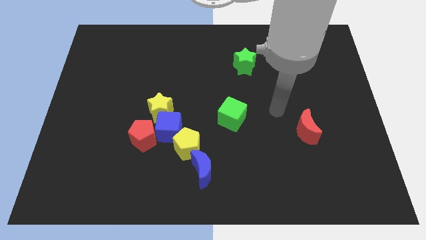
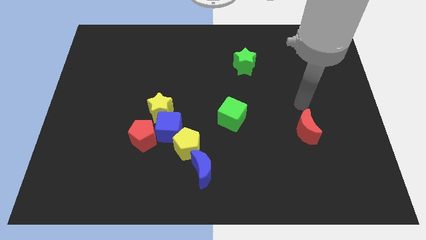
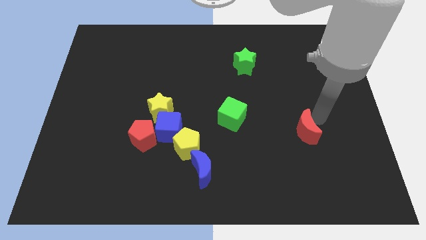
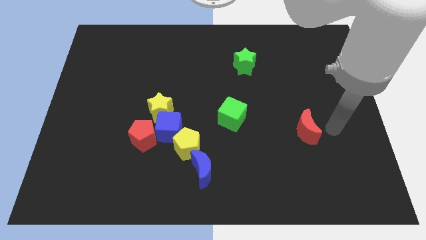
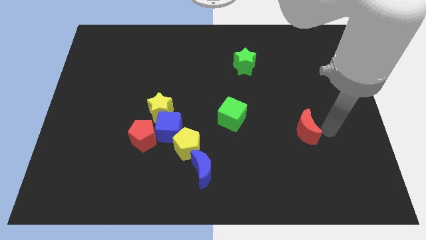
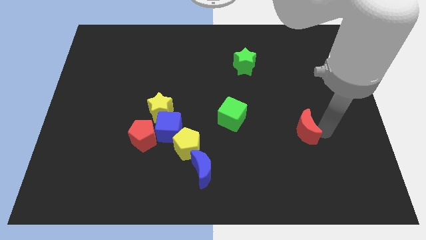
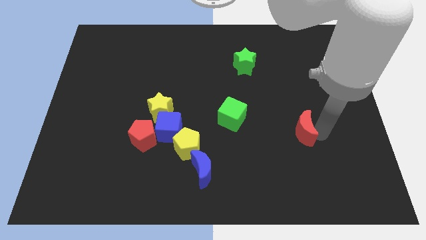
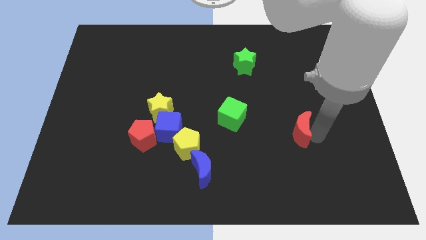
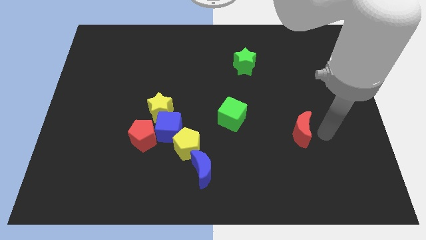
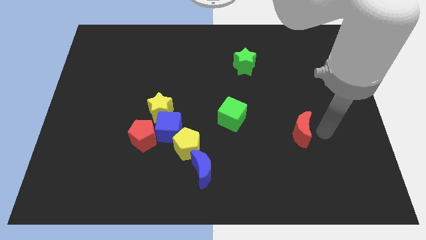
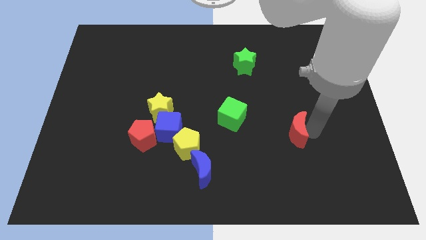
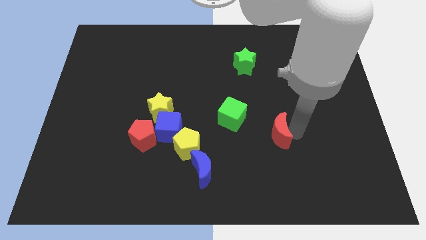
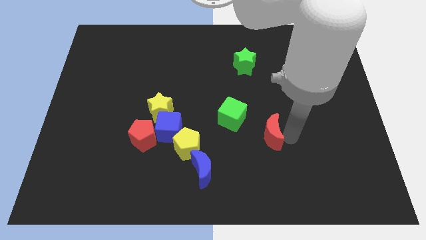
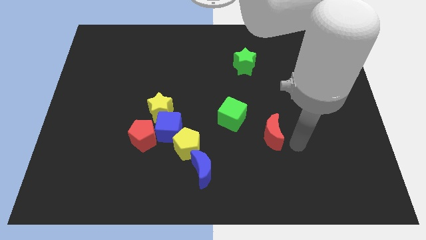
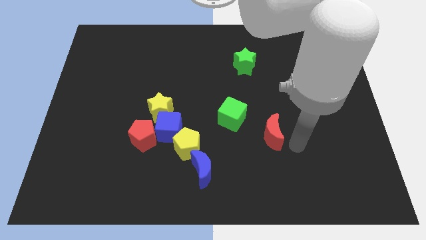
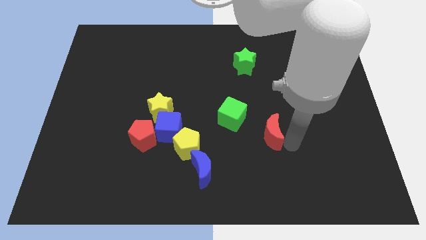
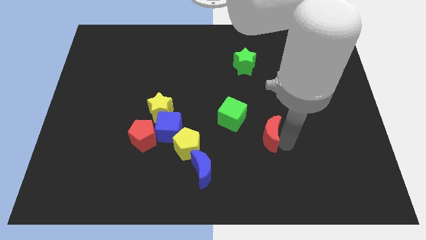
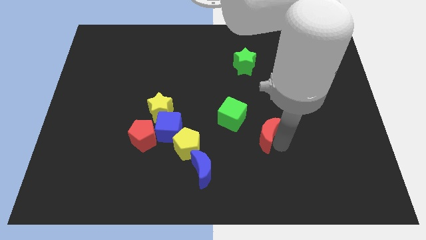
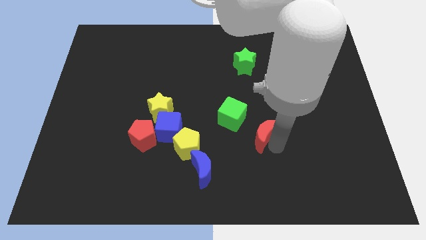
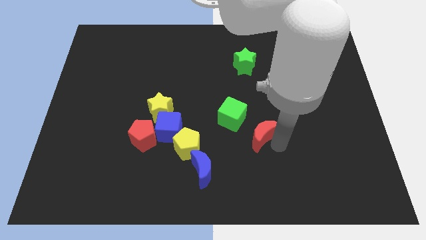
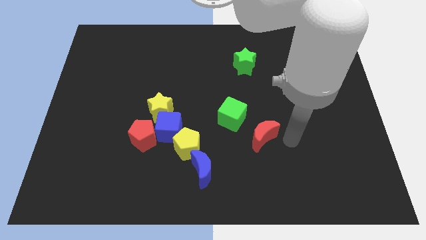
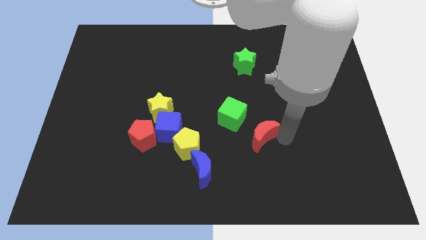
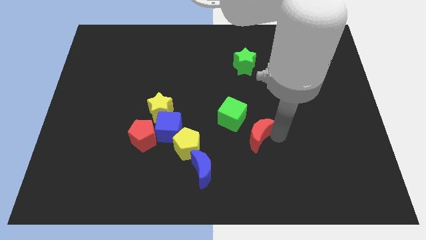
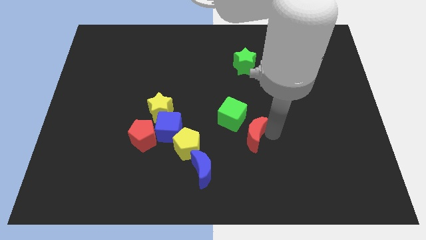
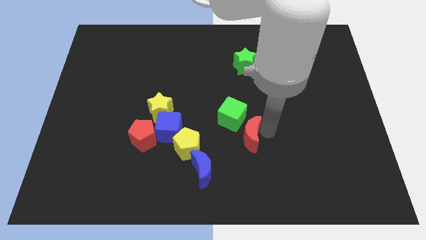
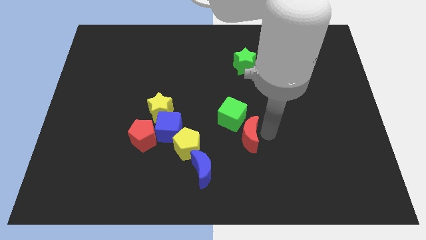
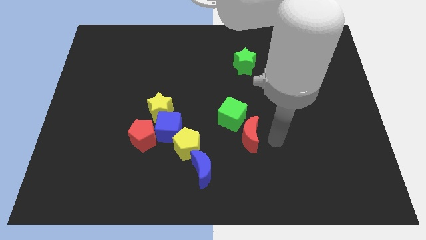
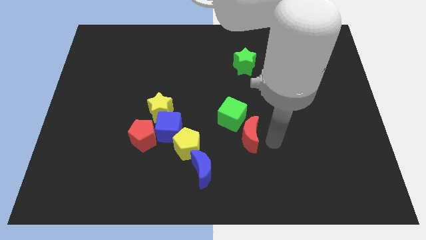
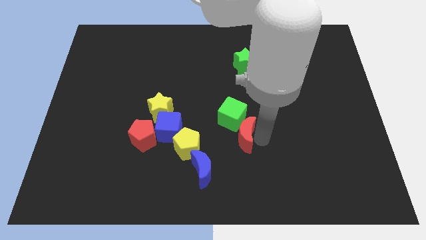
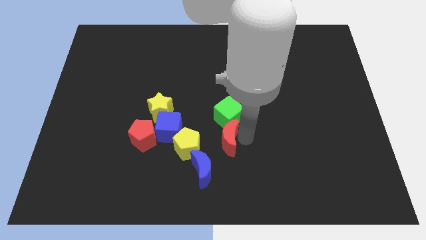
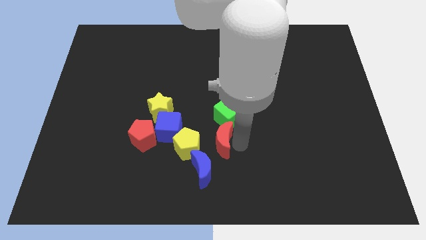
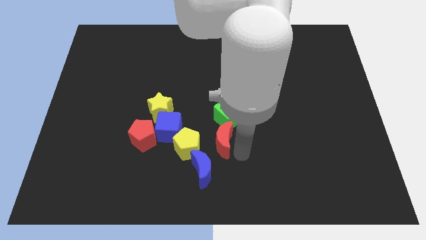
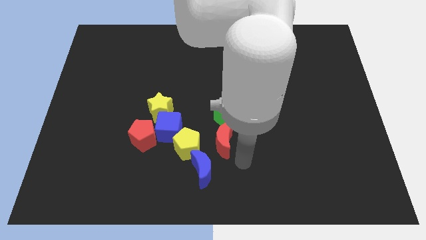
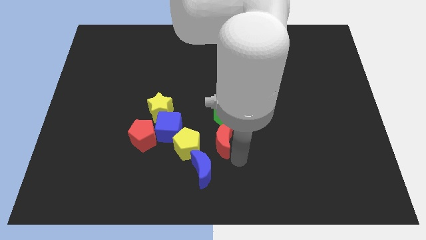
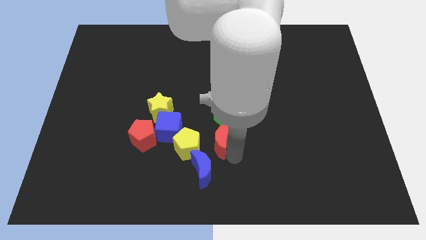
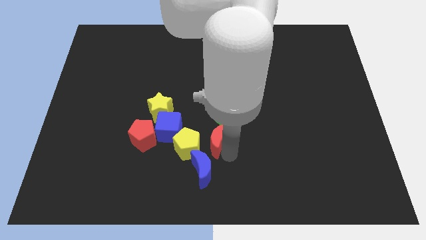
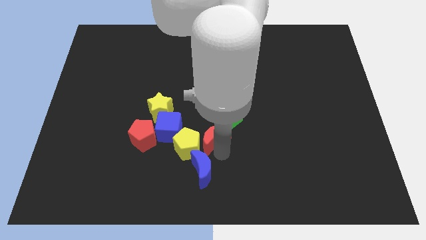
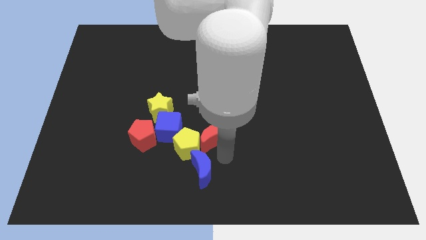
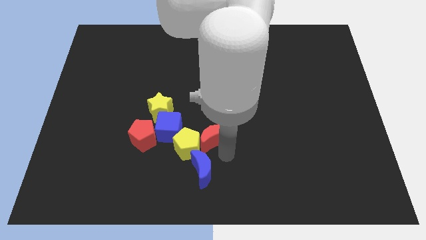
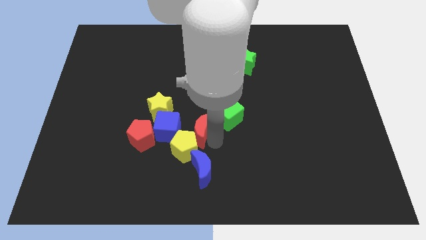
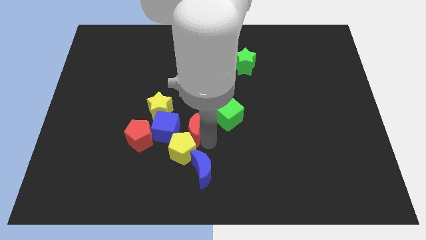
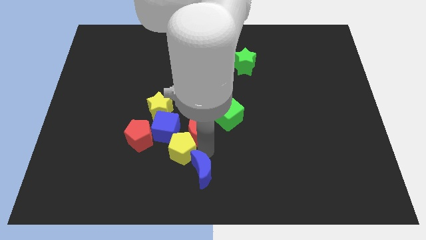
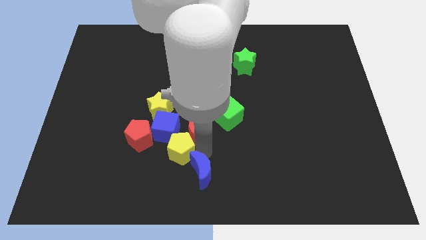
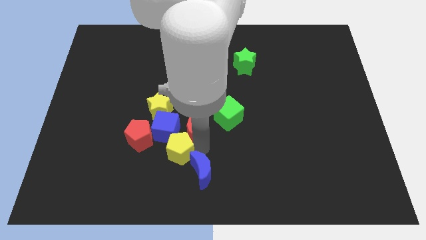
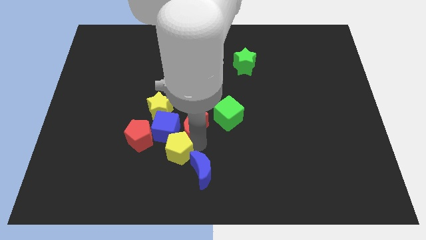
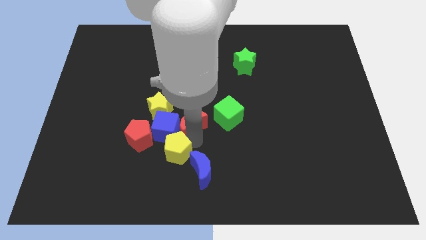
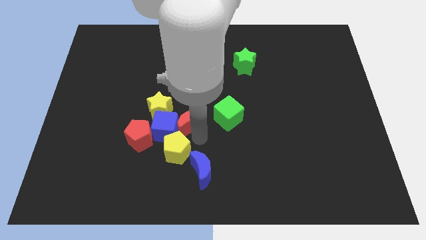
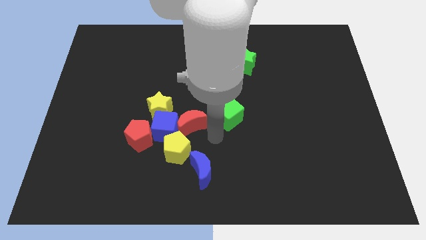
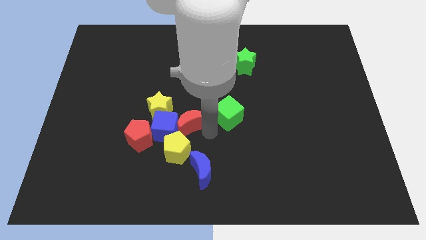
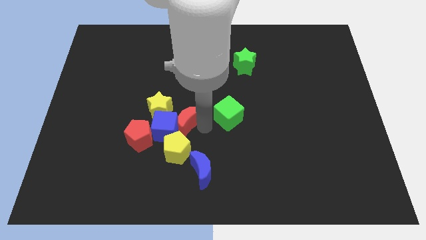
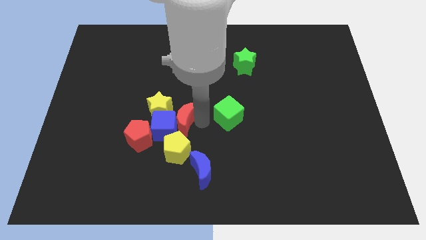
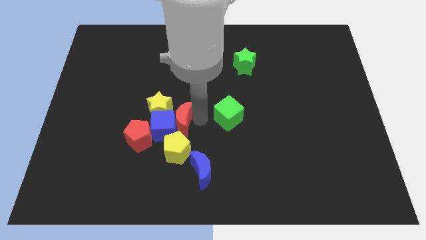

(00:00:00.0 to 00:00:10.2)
push the red moon to the yellow star

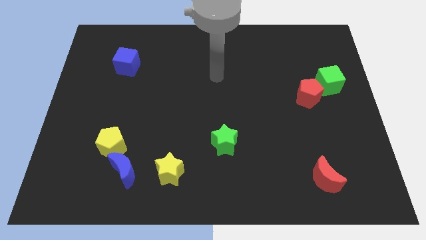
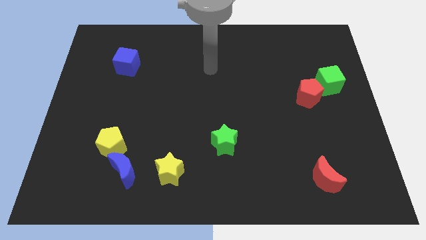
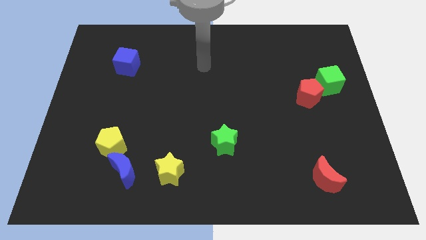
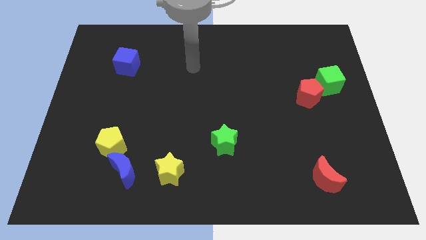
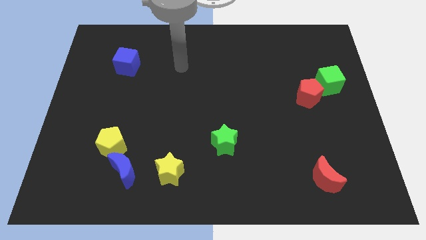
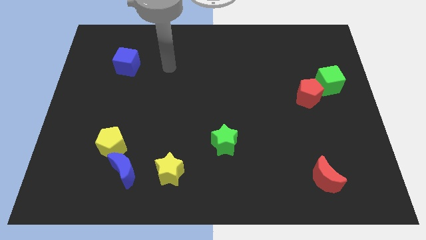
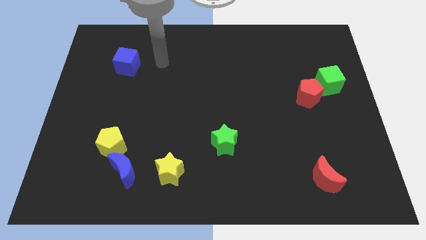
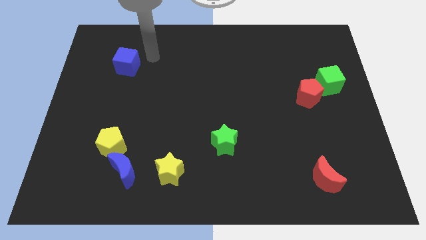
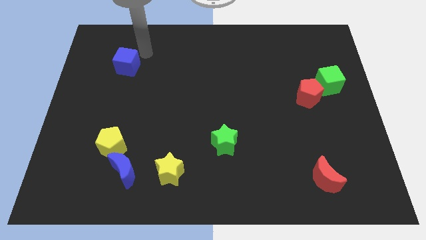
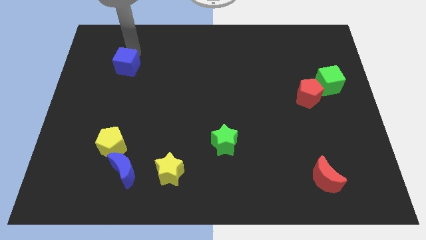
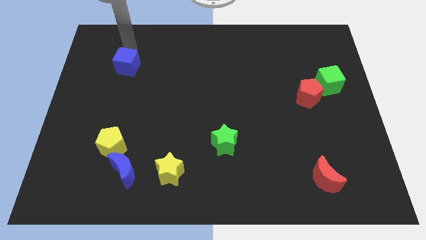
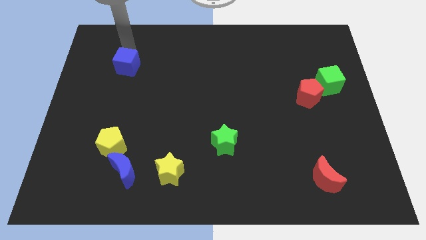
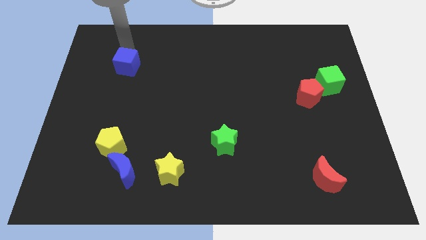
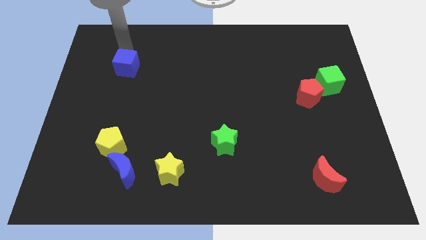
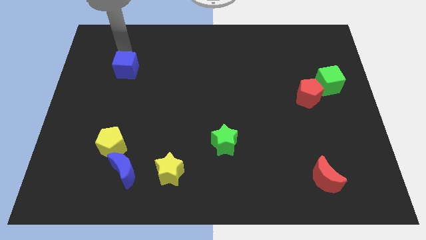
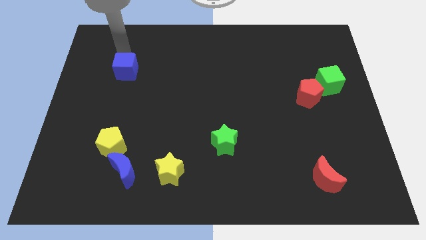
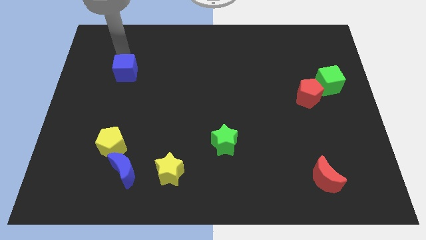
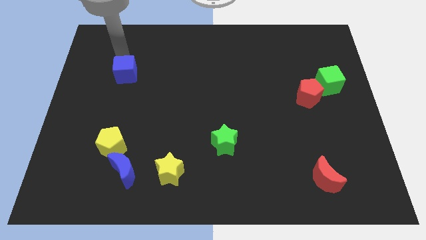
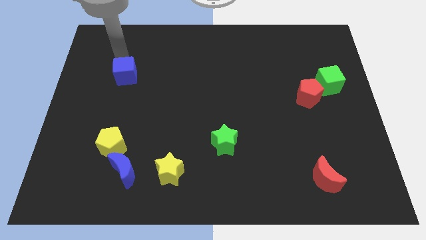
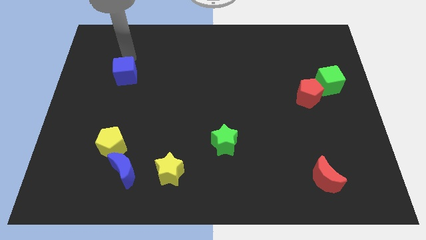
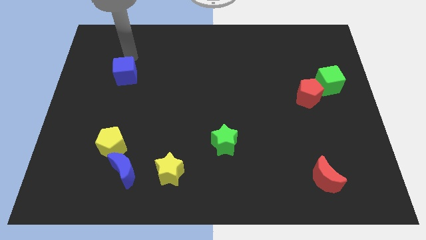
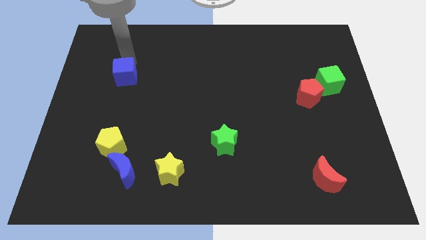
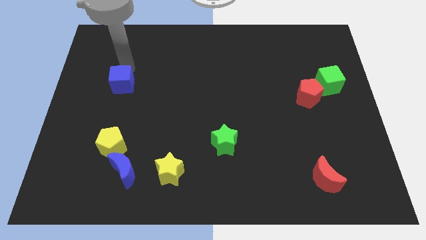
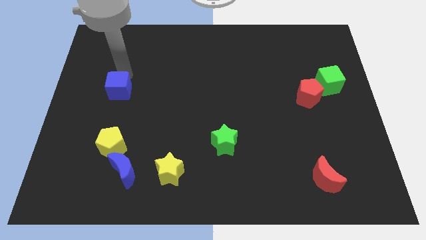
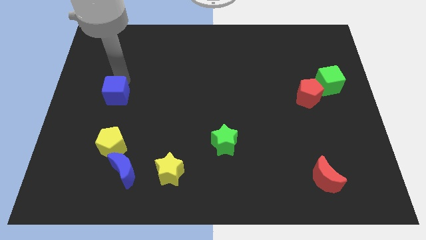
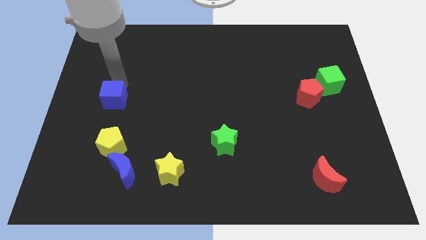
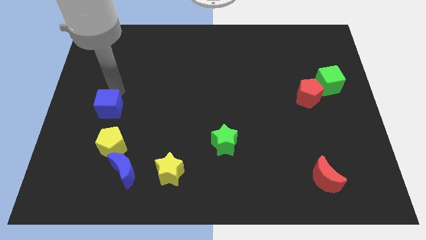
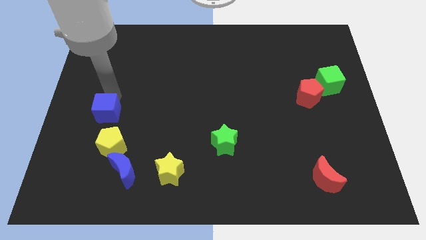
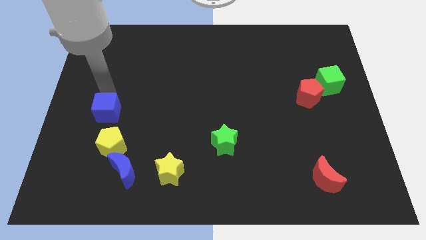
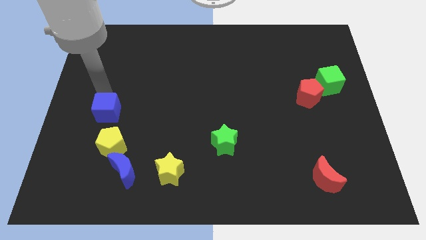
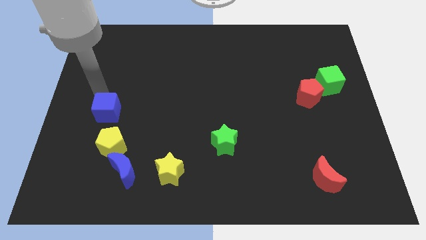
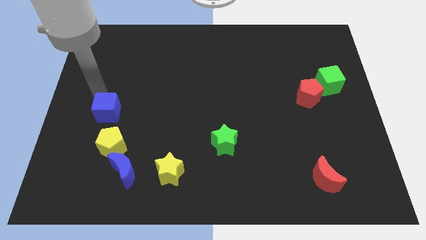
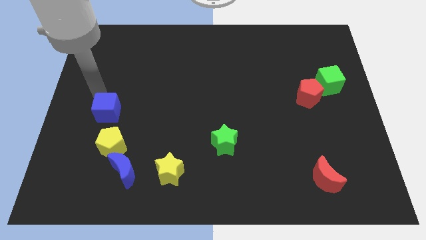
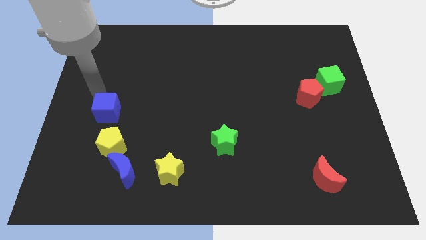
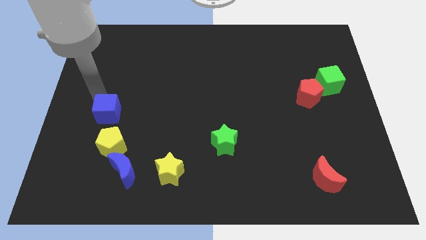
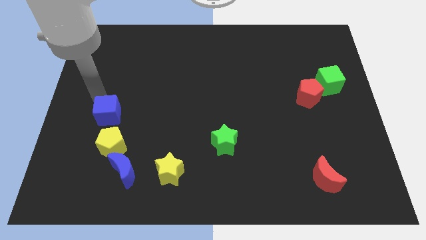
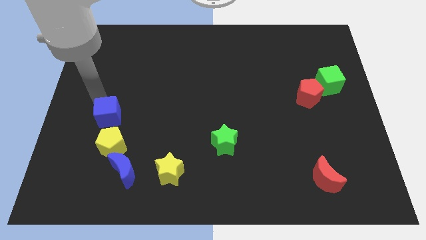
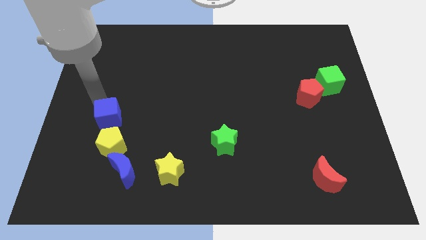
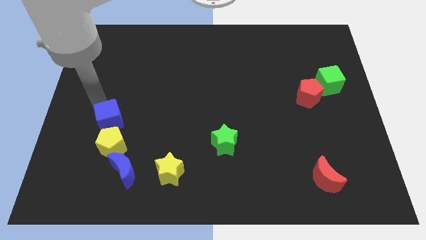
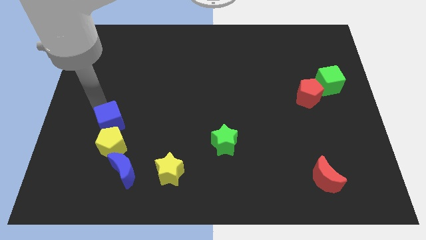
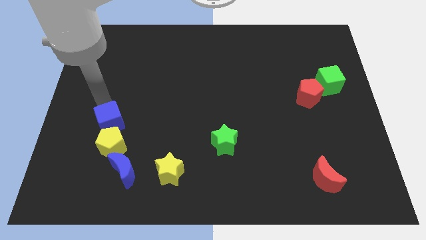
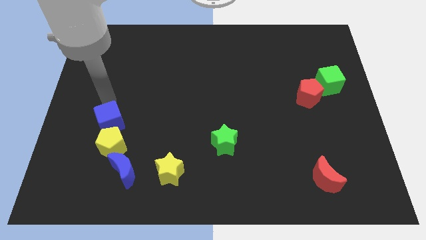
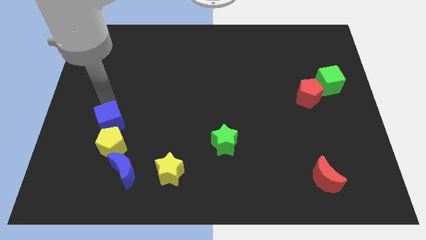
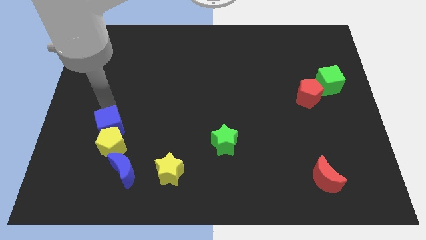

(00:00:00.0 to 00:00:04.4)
slide the blue cube towards the yellow pentagon
